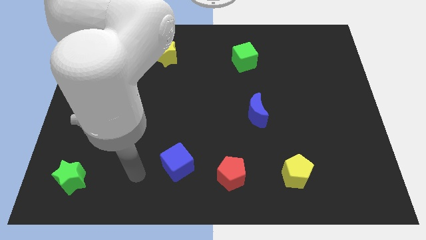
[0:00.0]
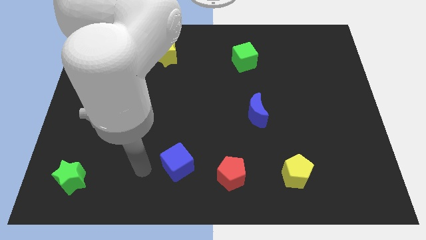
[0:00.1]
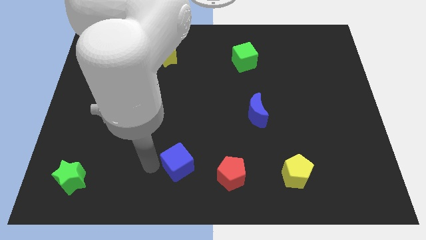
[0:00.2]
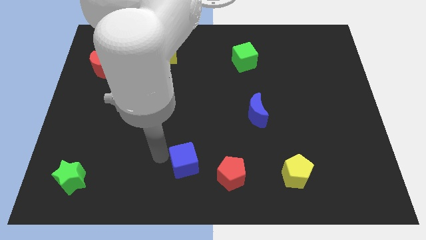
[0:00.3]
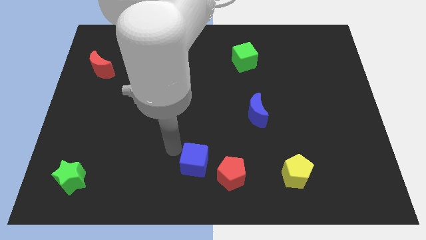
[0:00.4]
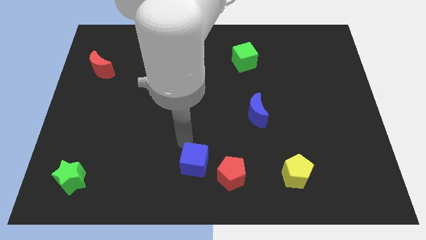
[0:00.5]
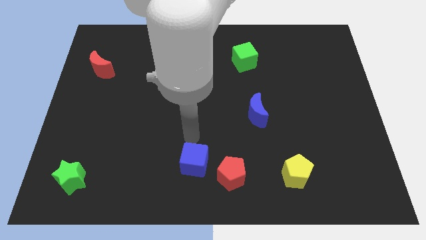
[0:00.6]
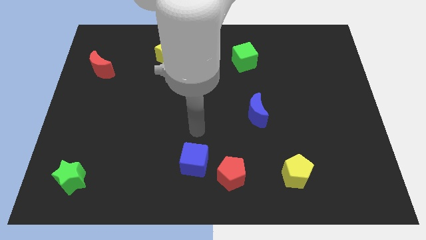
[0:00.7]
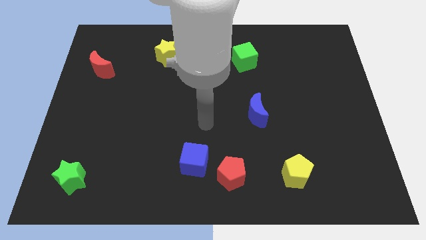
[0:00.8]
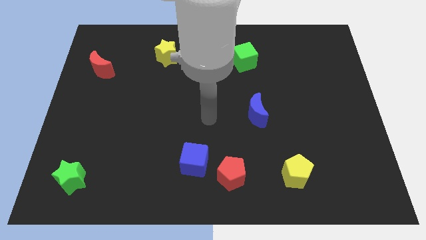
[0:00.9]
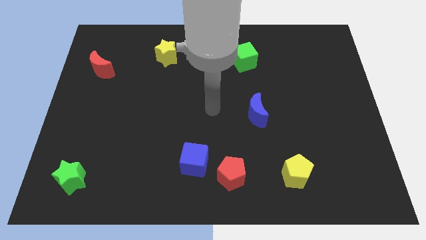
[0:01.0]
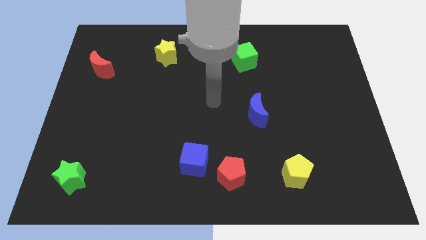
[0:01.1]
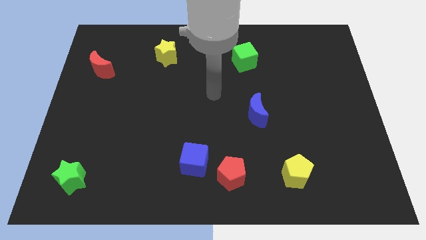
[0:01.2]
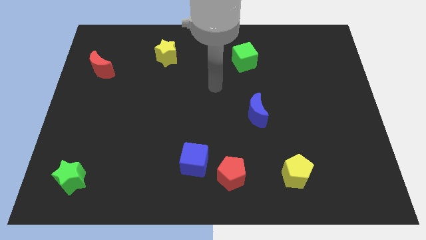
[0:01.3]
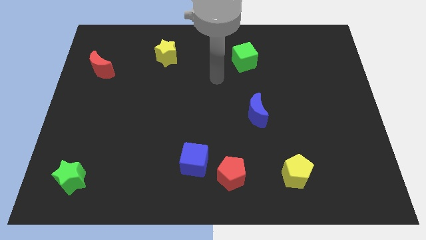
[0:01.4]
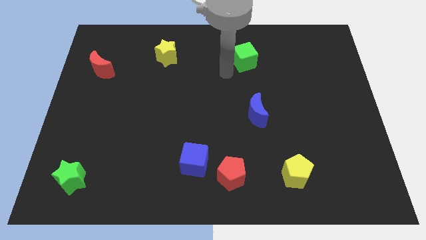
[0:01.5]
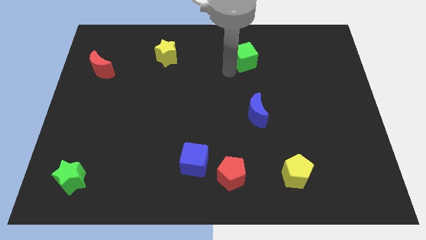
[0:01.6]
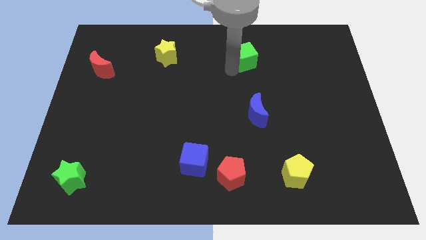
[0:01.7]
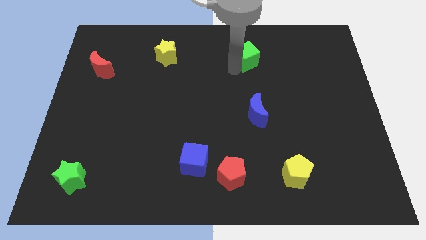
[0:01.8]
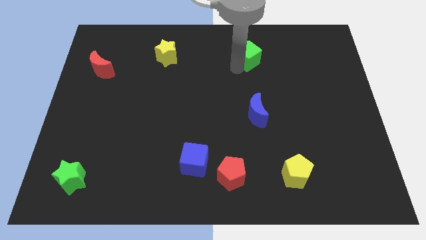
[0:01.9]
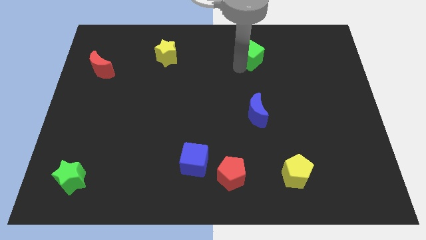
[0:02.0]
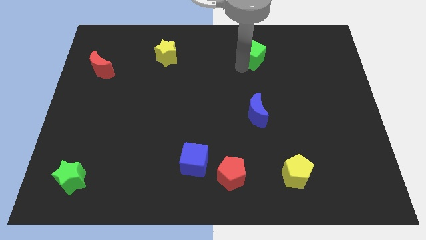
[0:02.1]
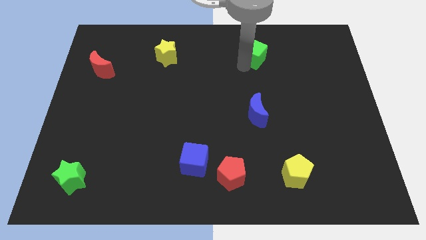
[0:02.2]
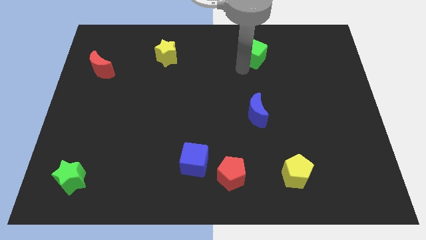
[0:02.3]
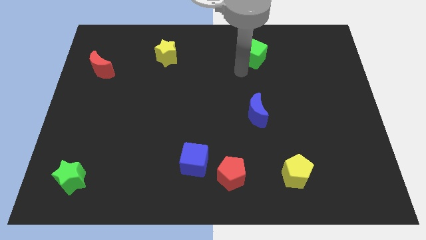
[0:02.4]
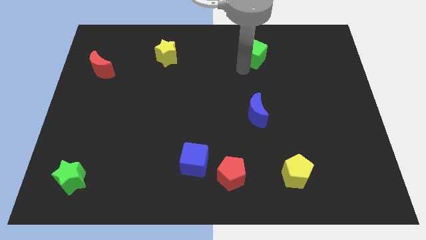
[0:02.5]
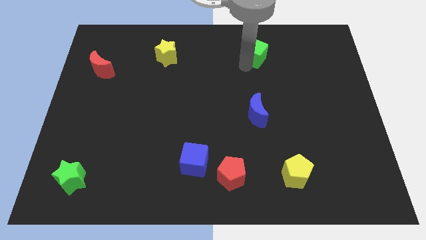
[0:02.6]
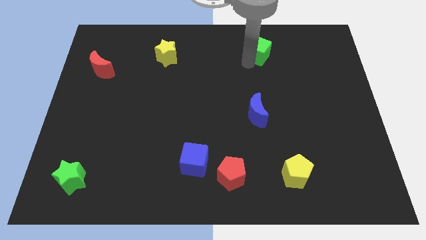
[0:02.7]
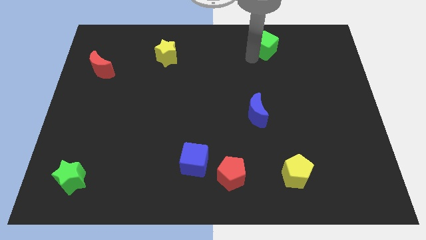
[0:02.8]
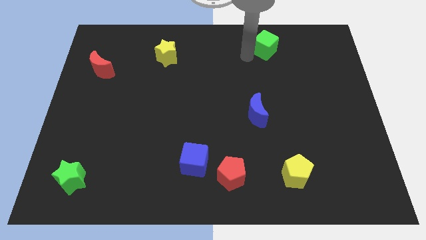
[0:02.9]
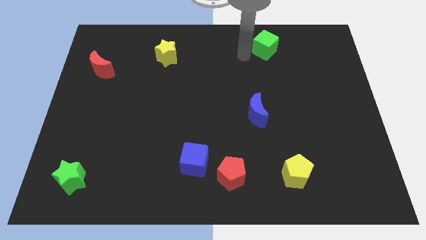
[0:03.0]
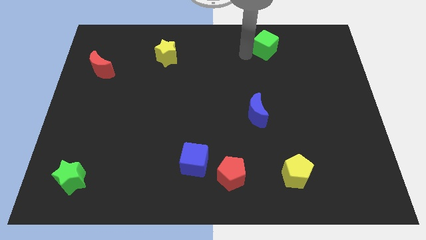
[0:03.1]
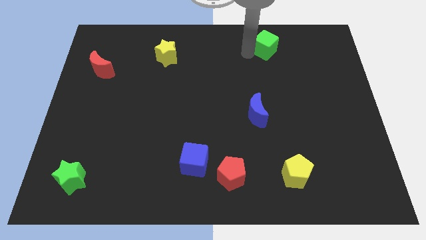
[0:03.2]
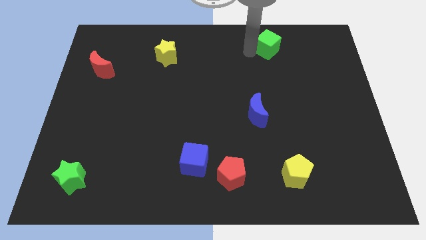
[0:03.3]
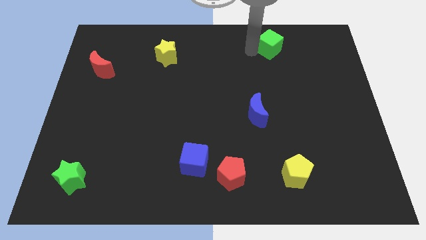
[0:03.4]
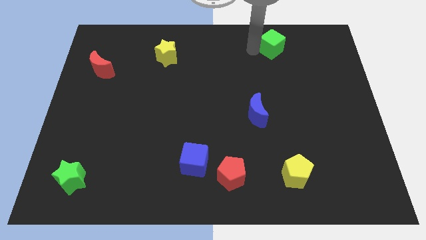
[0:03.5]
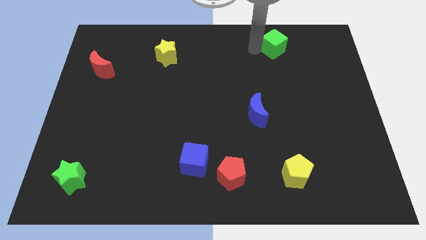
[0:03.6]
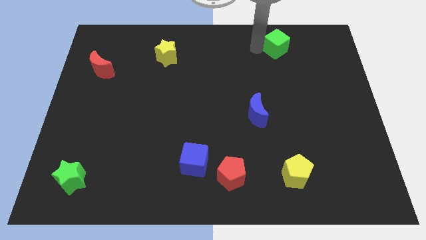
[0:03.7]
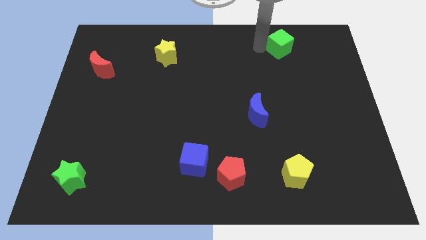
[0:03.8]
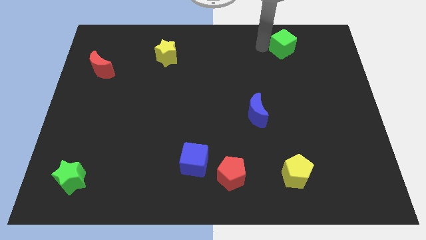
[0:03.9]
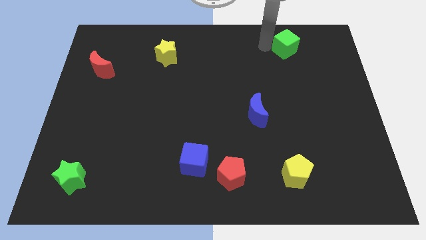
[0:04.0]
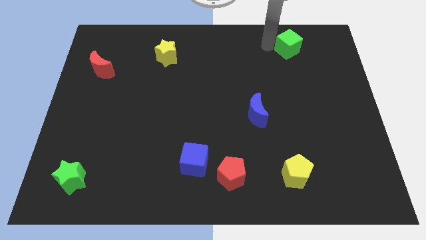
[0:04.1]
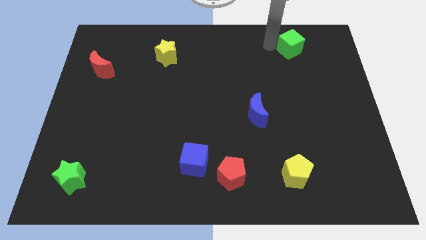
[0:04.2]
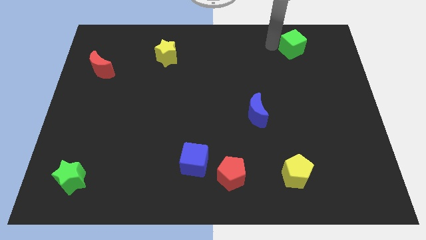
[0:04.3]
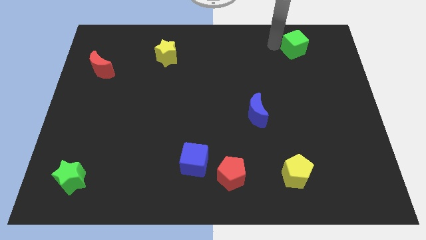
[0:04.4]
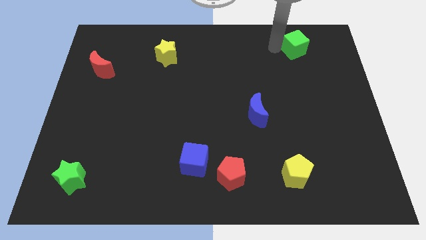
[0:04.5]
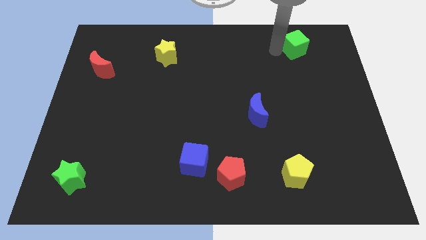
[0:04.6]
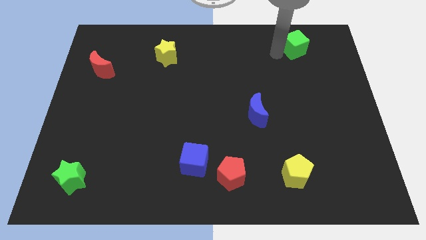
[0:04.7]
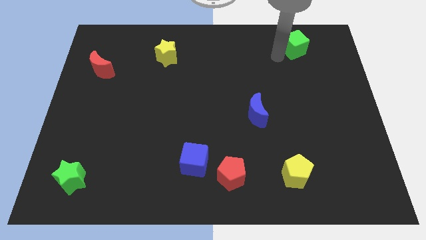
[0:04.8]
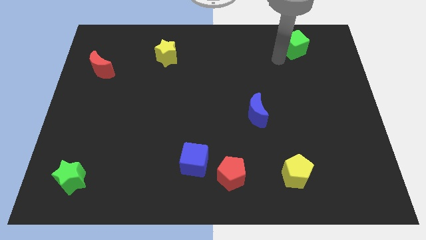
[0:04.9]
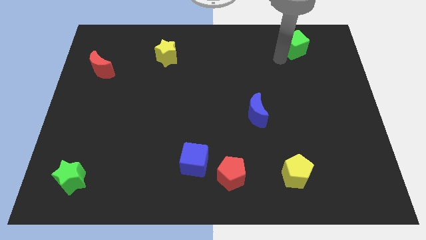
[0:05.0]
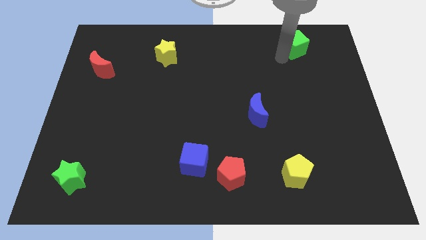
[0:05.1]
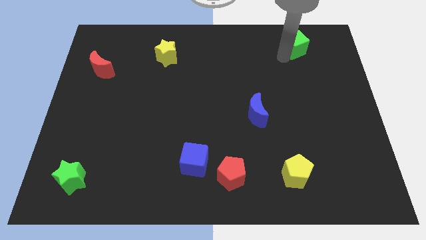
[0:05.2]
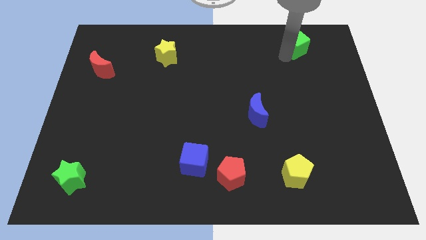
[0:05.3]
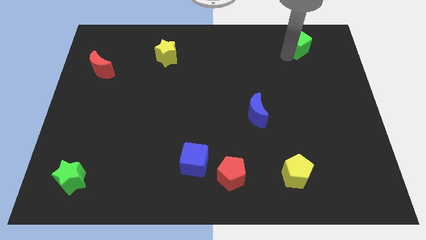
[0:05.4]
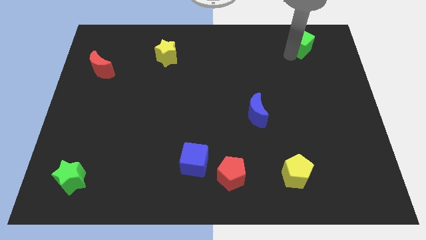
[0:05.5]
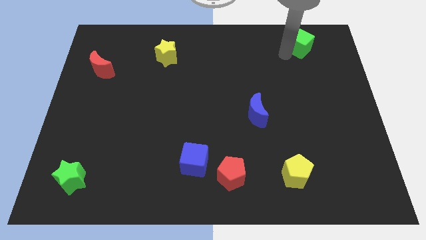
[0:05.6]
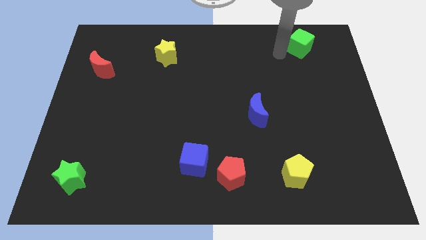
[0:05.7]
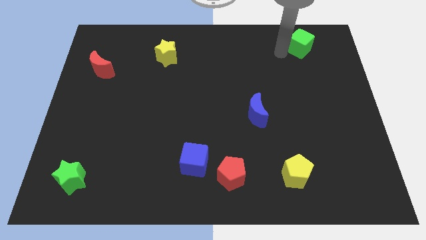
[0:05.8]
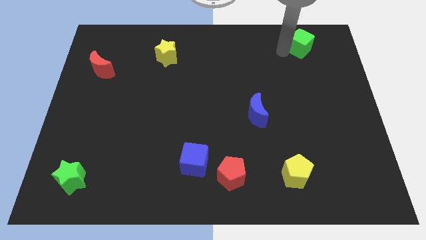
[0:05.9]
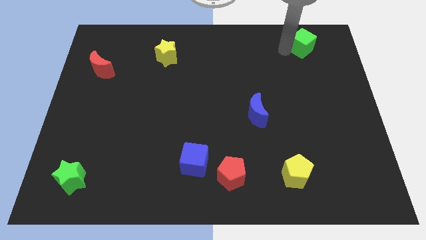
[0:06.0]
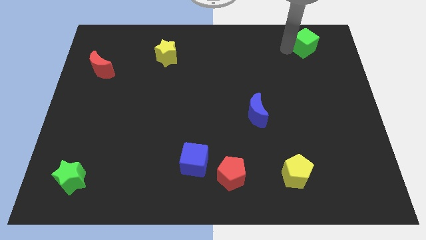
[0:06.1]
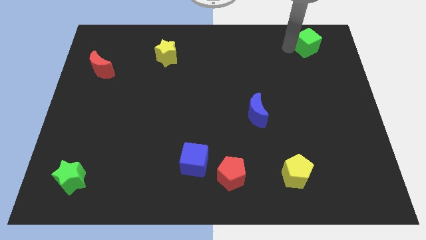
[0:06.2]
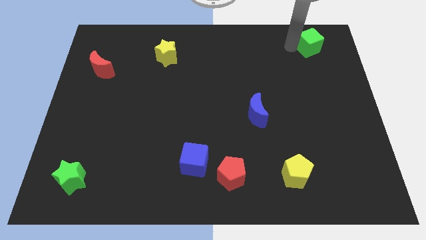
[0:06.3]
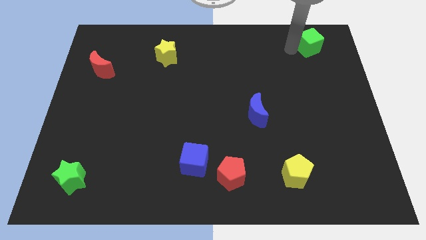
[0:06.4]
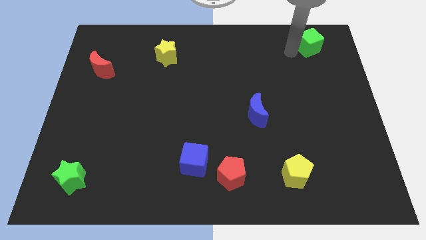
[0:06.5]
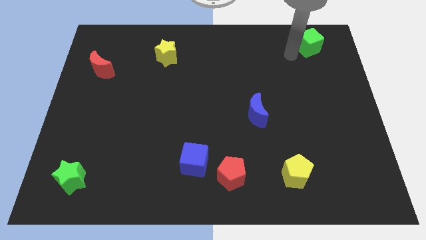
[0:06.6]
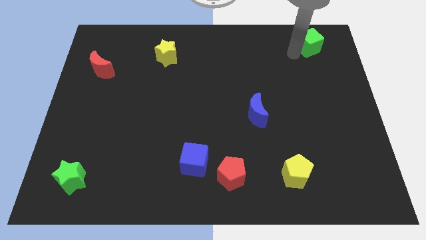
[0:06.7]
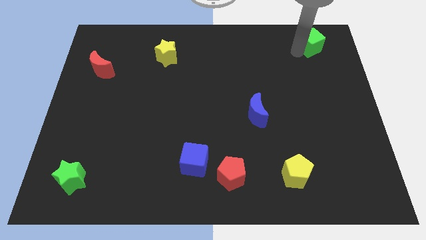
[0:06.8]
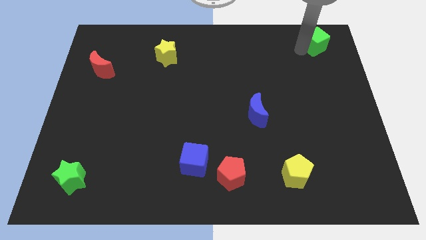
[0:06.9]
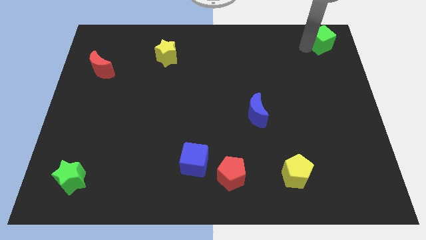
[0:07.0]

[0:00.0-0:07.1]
put the green cube to the top right corner
